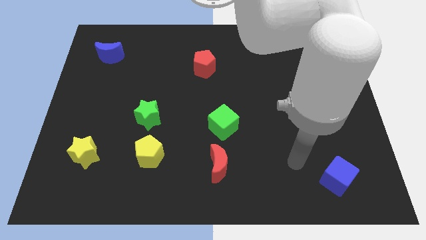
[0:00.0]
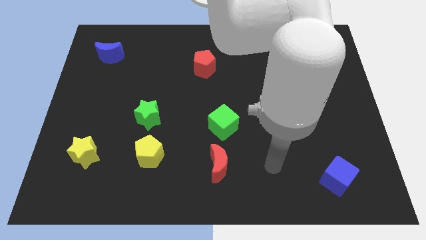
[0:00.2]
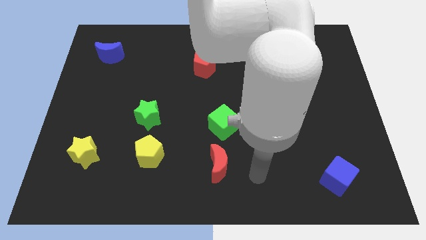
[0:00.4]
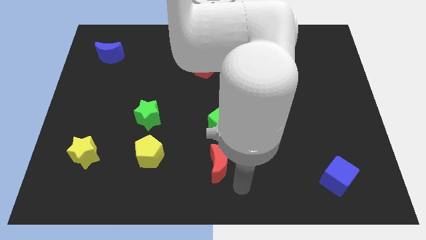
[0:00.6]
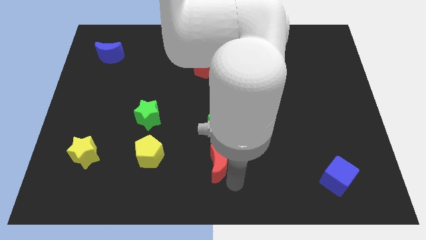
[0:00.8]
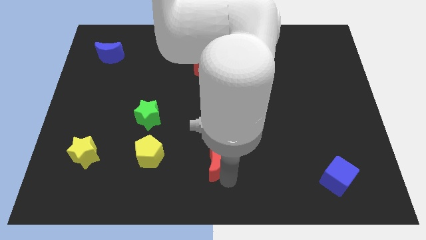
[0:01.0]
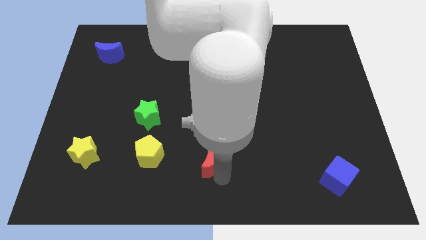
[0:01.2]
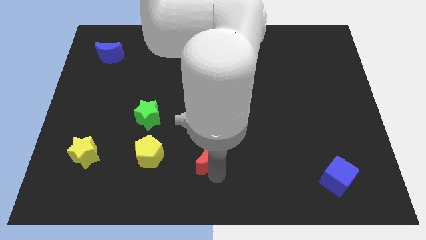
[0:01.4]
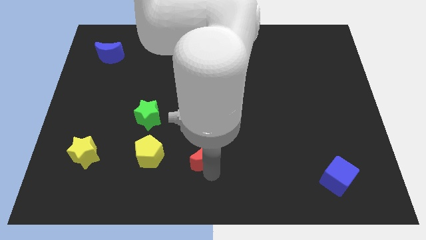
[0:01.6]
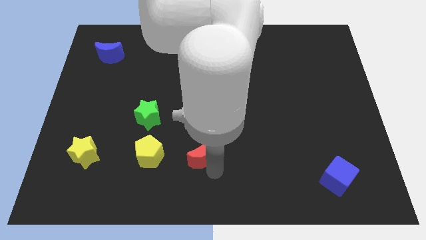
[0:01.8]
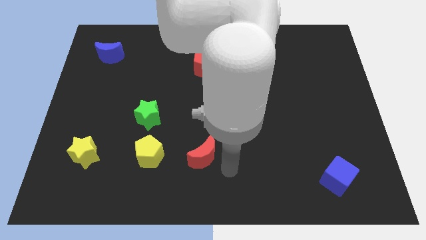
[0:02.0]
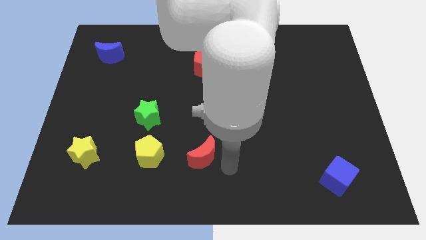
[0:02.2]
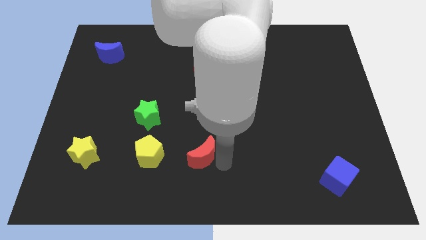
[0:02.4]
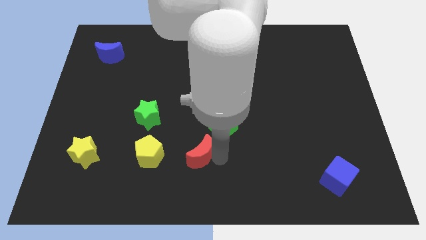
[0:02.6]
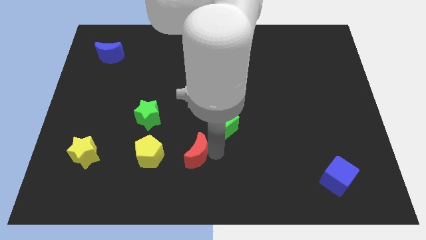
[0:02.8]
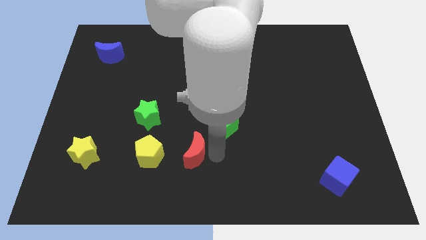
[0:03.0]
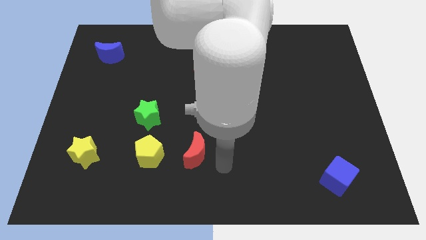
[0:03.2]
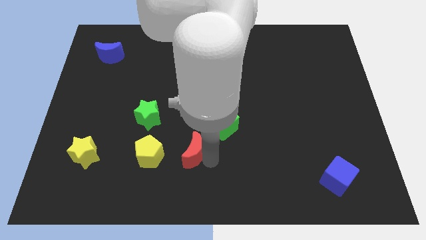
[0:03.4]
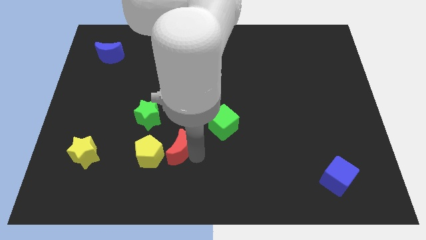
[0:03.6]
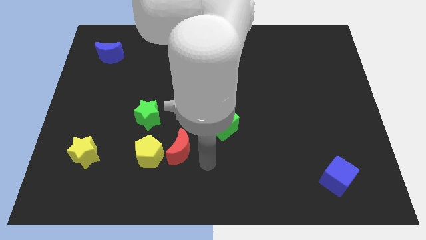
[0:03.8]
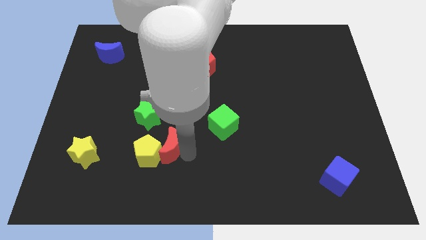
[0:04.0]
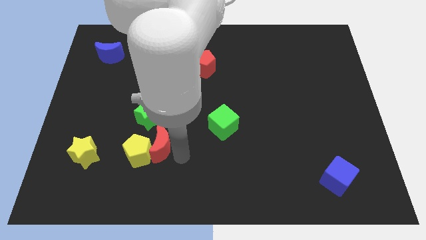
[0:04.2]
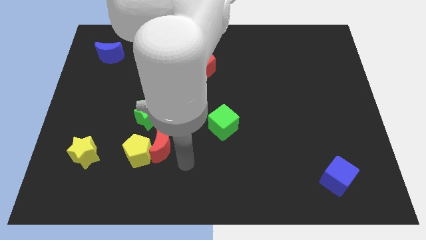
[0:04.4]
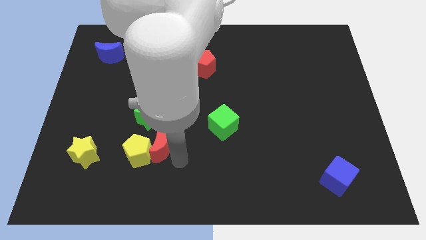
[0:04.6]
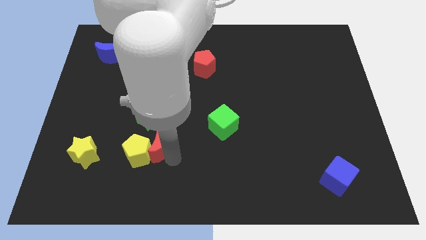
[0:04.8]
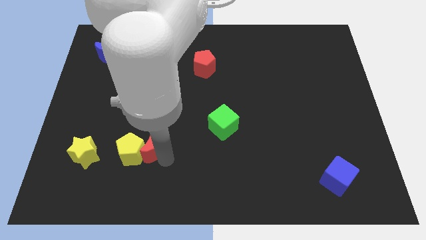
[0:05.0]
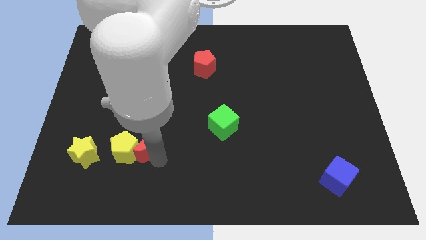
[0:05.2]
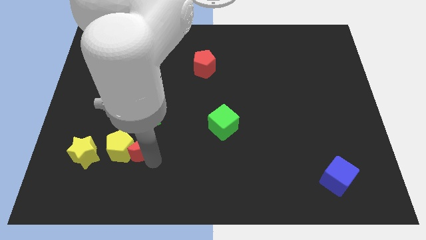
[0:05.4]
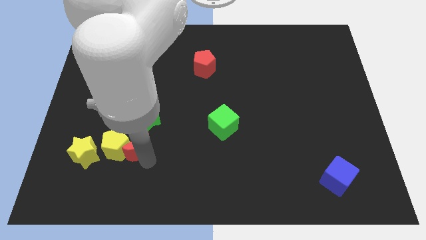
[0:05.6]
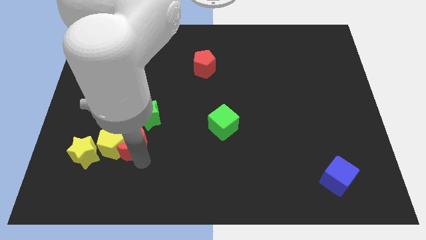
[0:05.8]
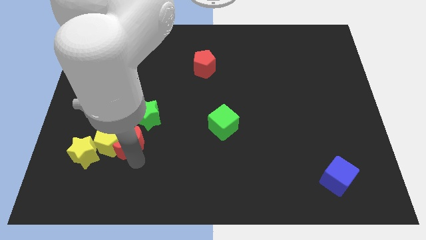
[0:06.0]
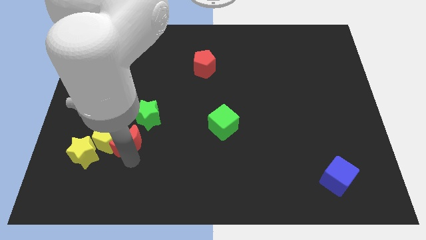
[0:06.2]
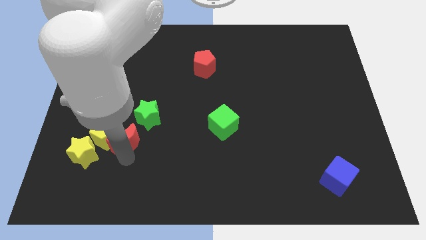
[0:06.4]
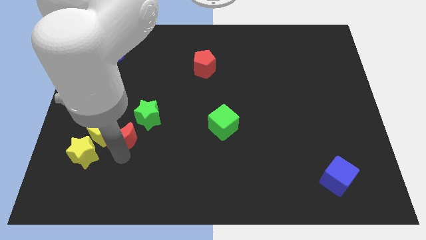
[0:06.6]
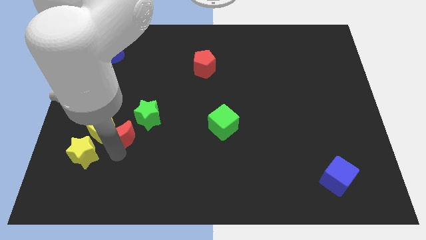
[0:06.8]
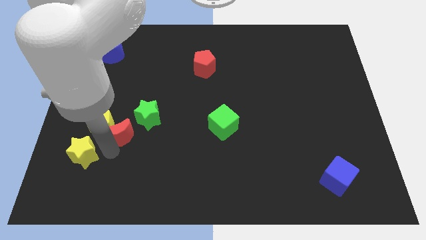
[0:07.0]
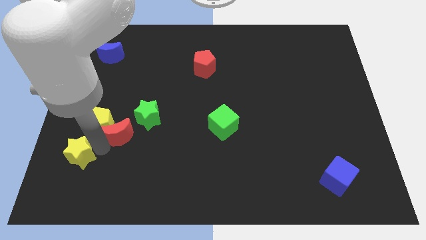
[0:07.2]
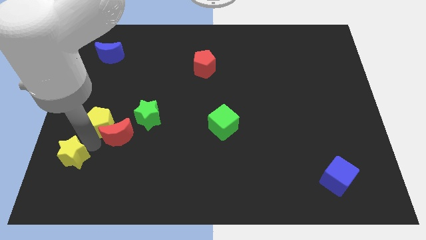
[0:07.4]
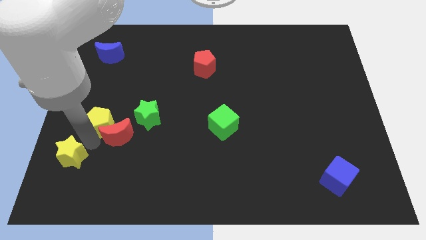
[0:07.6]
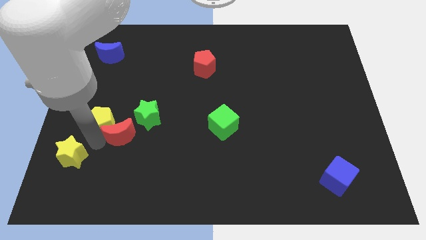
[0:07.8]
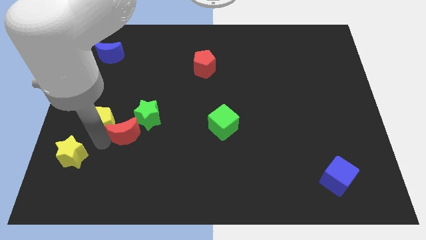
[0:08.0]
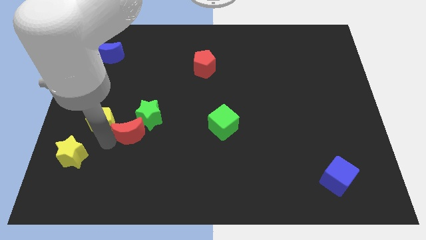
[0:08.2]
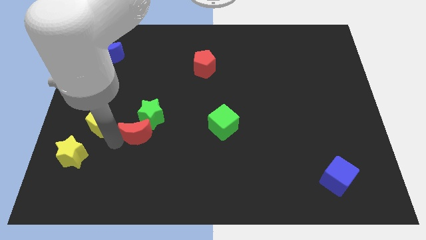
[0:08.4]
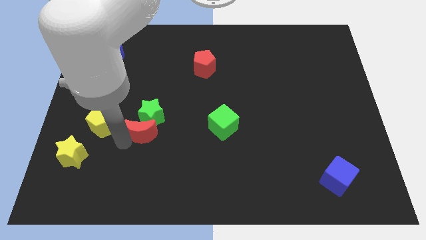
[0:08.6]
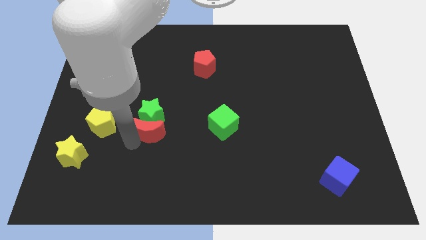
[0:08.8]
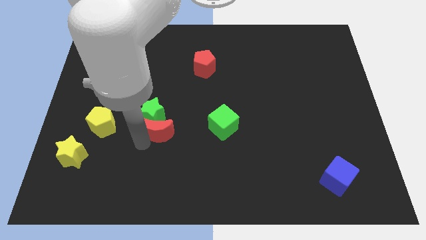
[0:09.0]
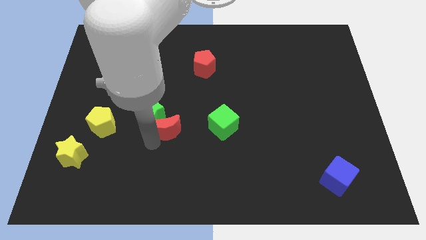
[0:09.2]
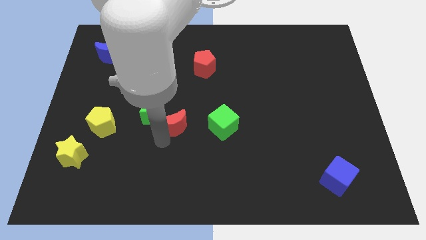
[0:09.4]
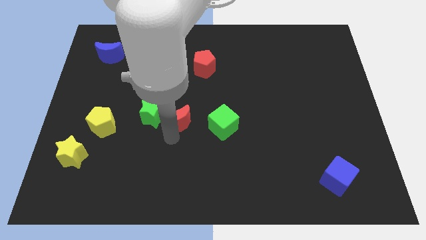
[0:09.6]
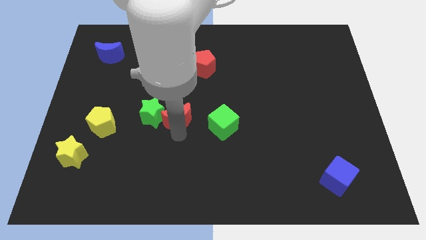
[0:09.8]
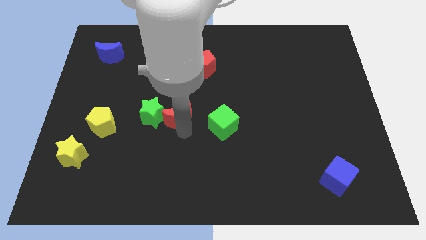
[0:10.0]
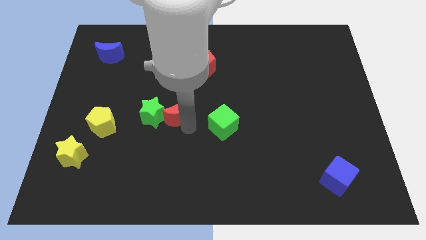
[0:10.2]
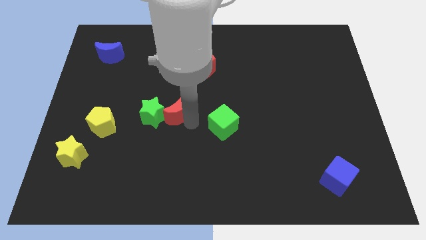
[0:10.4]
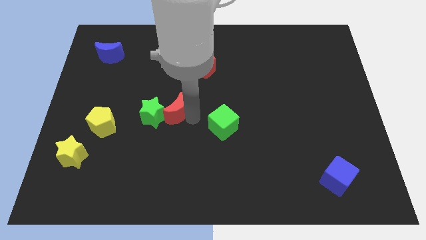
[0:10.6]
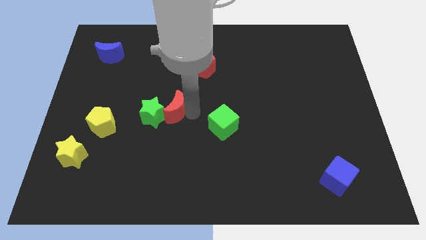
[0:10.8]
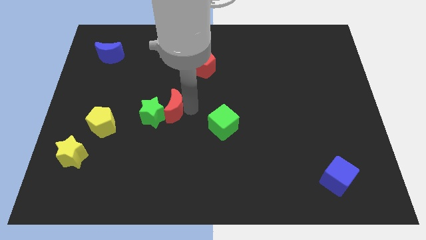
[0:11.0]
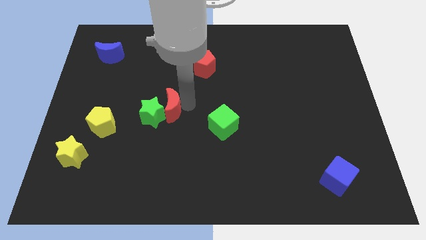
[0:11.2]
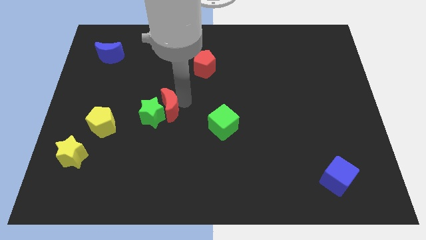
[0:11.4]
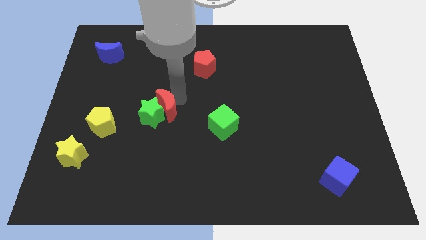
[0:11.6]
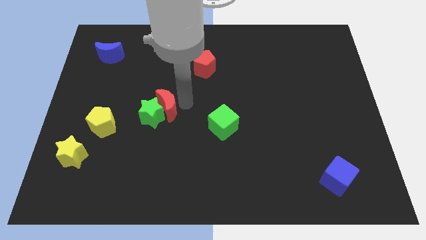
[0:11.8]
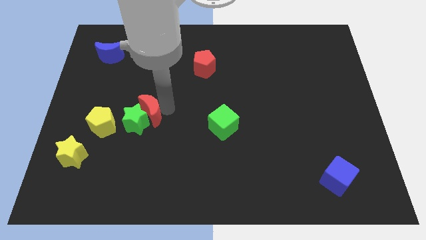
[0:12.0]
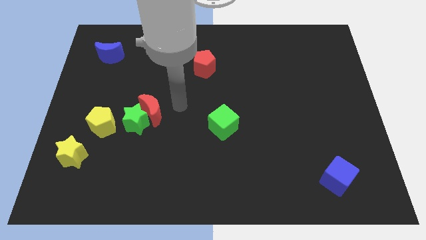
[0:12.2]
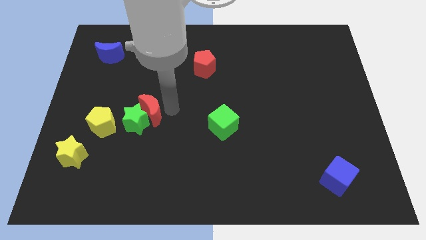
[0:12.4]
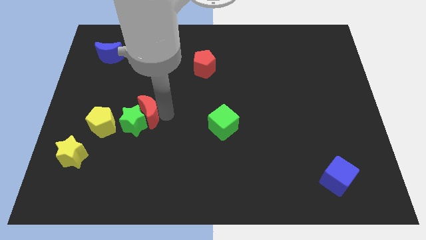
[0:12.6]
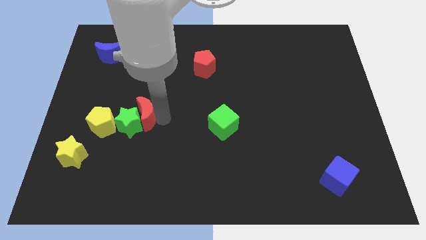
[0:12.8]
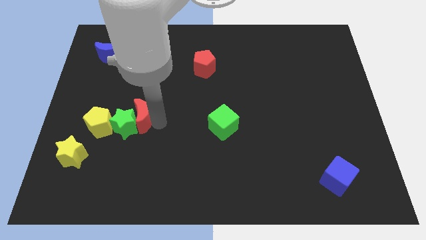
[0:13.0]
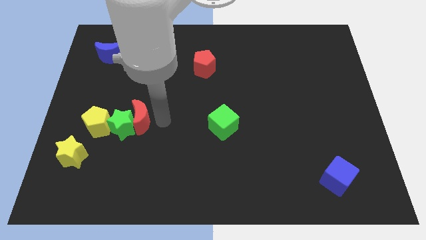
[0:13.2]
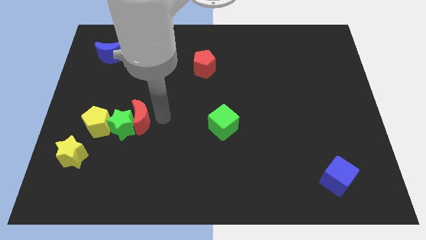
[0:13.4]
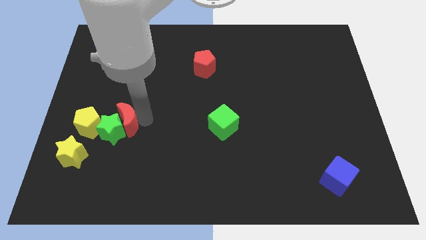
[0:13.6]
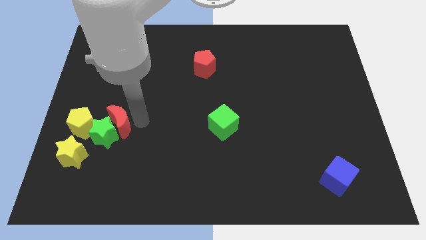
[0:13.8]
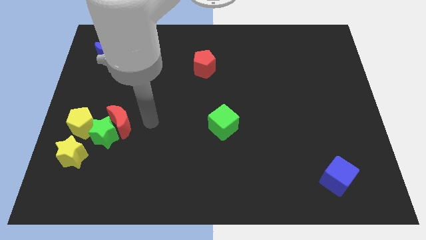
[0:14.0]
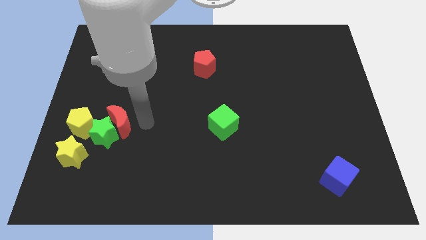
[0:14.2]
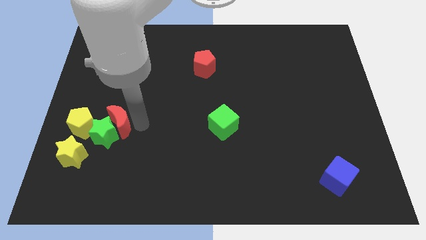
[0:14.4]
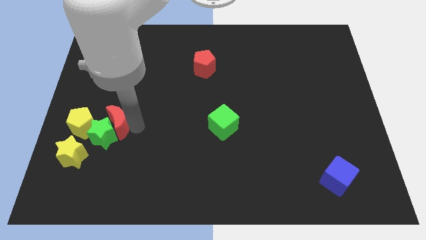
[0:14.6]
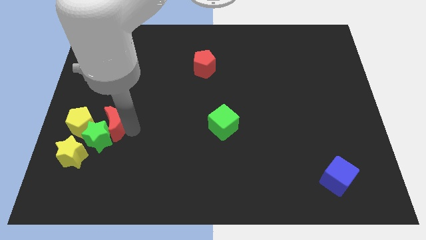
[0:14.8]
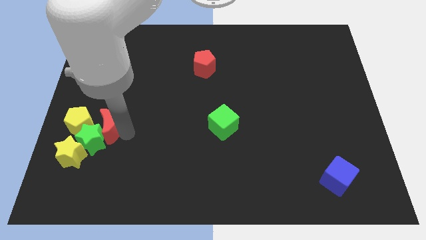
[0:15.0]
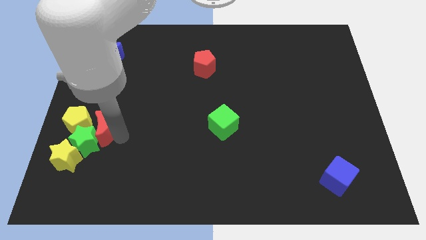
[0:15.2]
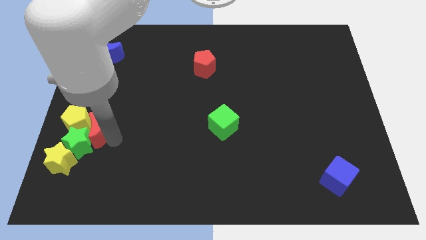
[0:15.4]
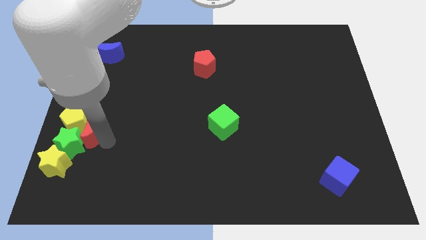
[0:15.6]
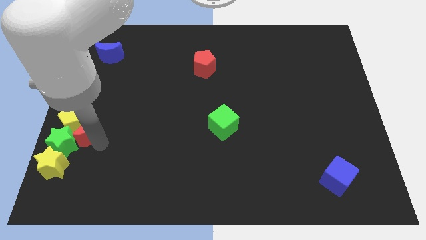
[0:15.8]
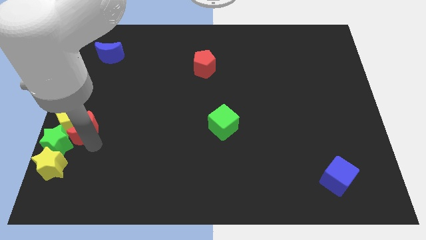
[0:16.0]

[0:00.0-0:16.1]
slide the red moon to the center left
